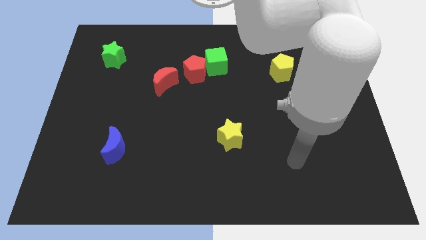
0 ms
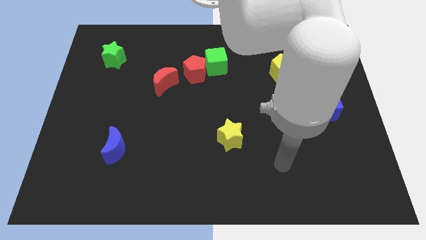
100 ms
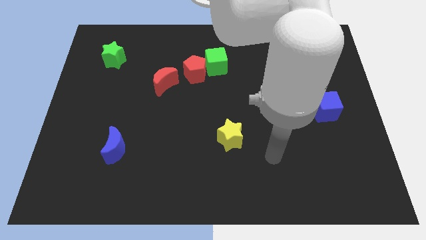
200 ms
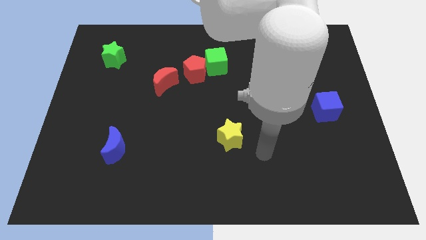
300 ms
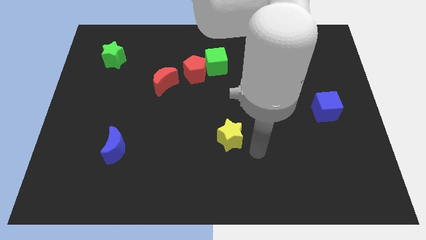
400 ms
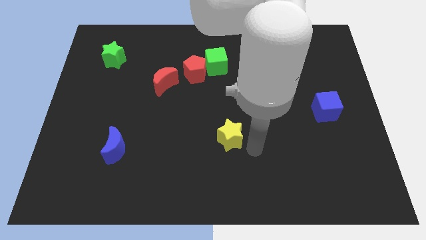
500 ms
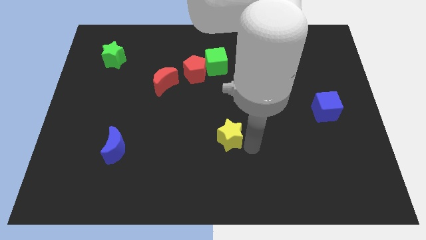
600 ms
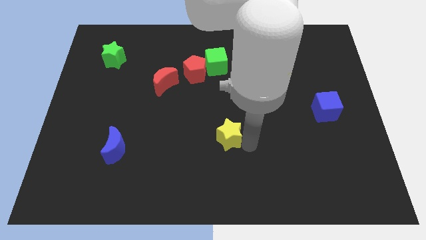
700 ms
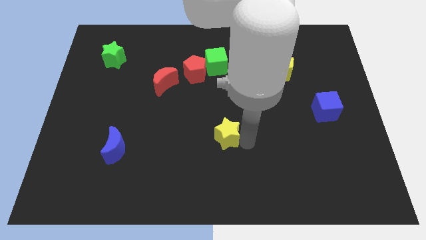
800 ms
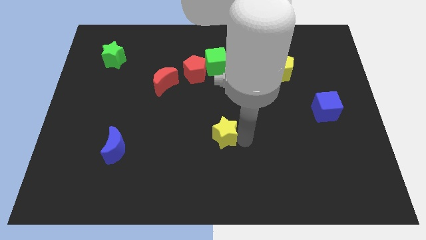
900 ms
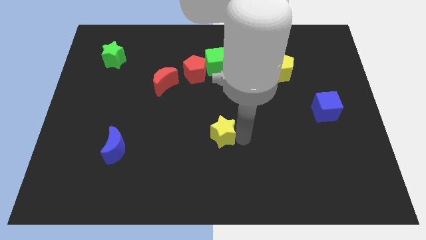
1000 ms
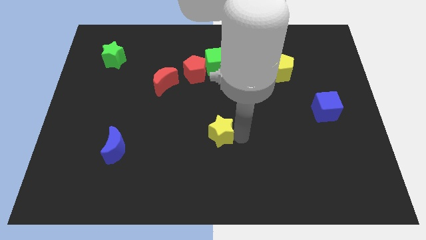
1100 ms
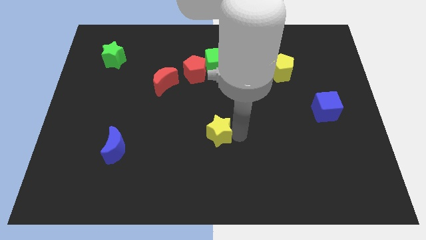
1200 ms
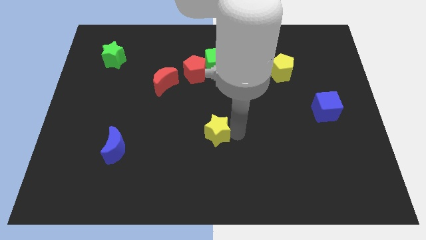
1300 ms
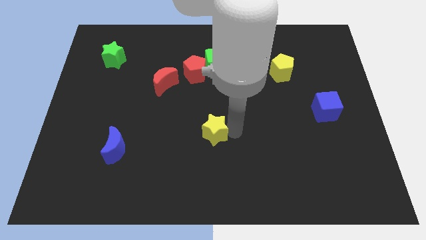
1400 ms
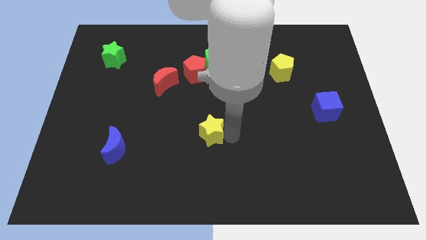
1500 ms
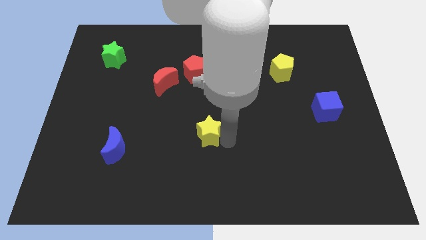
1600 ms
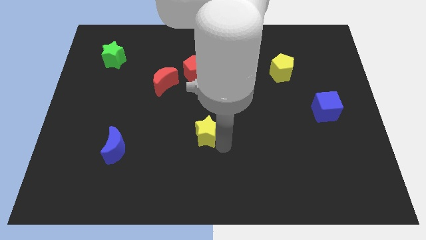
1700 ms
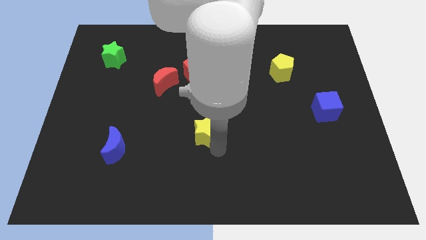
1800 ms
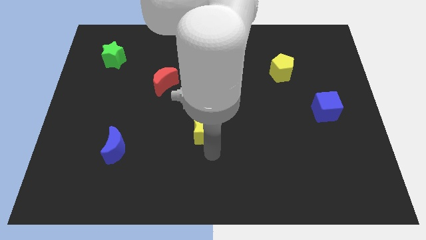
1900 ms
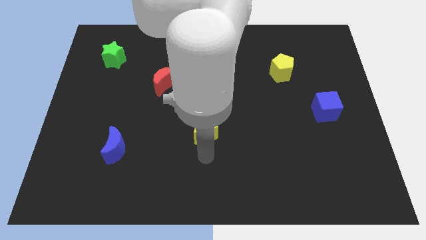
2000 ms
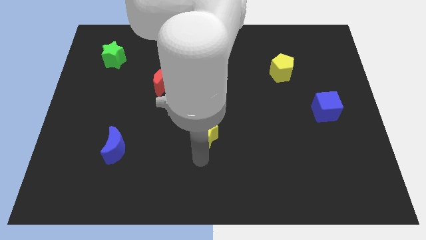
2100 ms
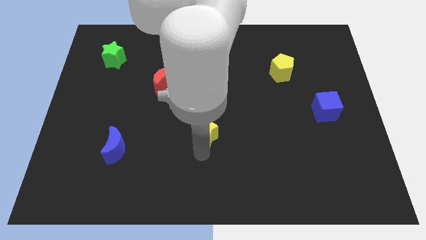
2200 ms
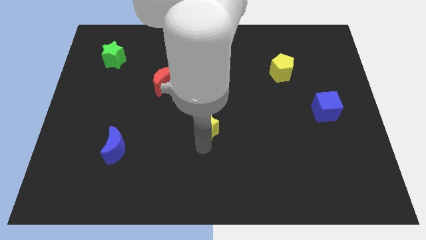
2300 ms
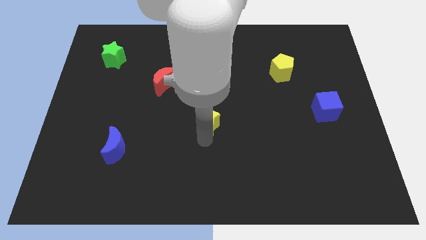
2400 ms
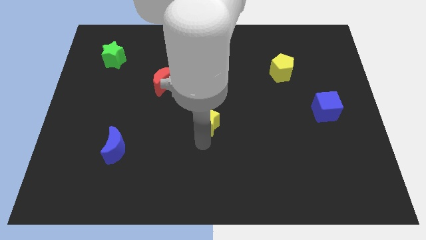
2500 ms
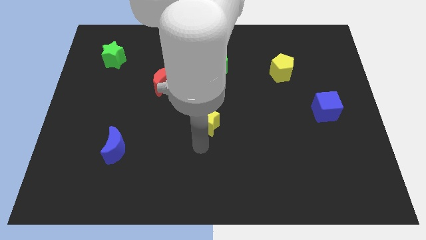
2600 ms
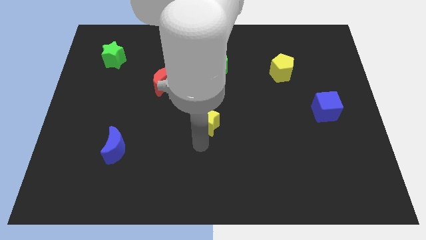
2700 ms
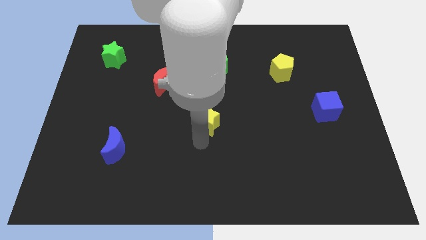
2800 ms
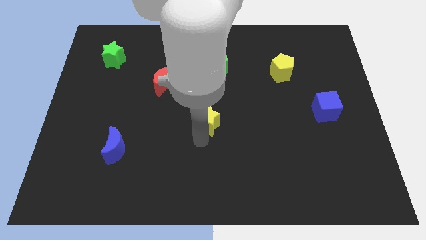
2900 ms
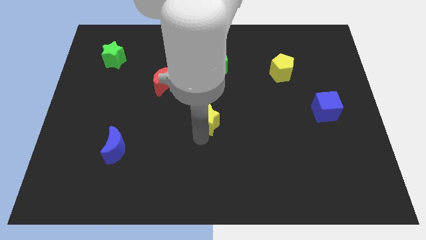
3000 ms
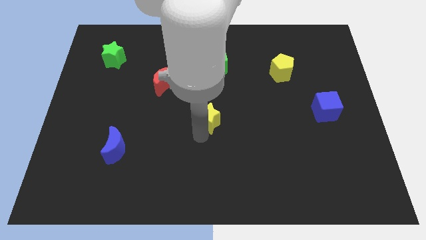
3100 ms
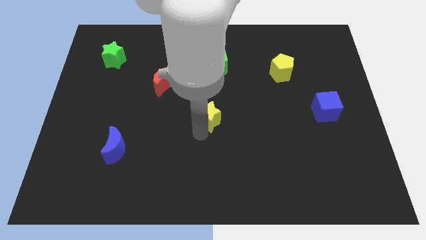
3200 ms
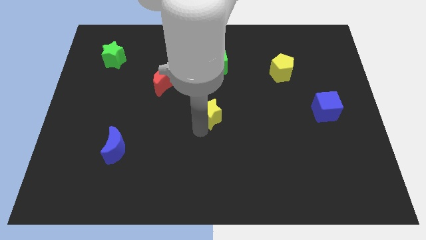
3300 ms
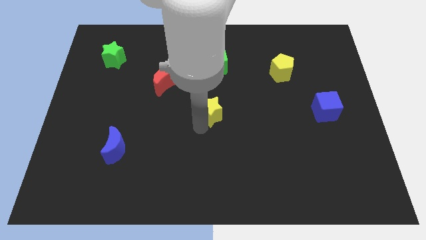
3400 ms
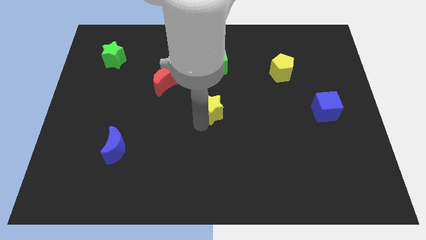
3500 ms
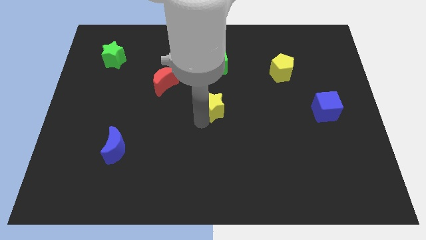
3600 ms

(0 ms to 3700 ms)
slightly move the yellow star upwards

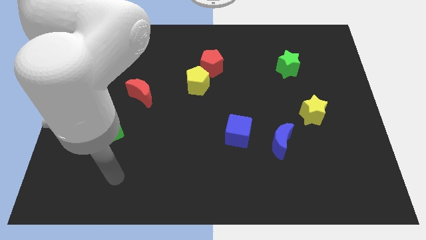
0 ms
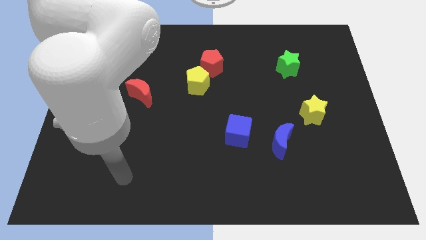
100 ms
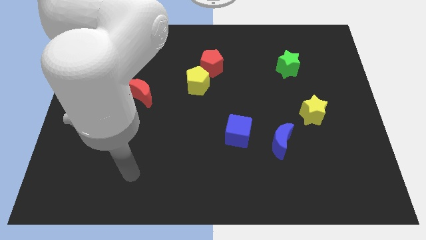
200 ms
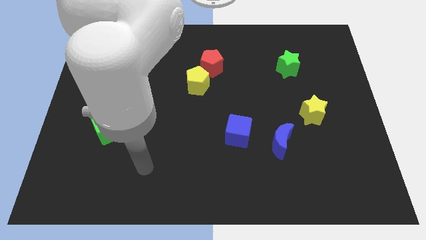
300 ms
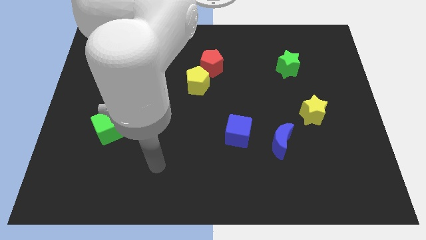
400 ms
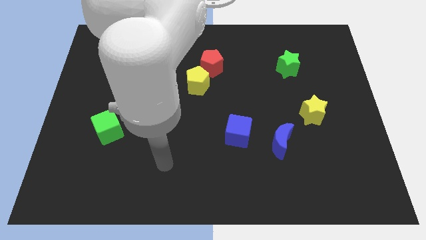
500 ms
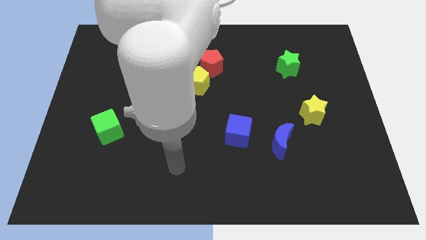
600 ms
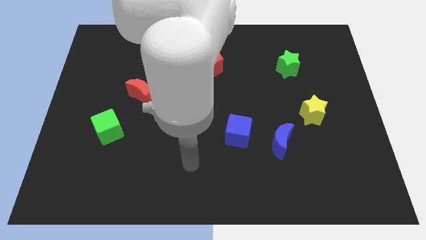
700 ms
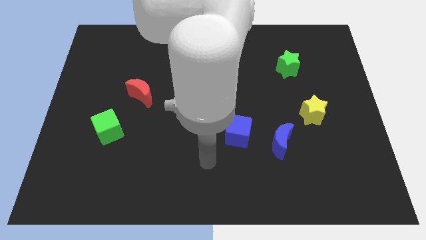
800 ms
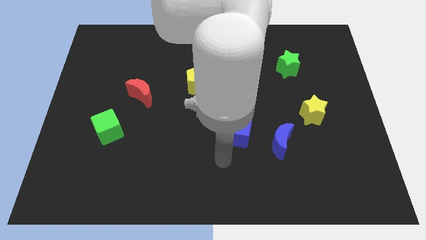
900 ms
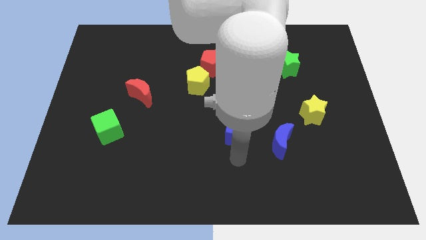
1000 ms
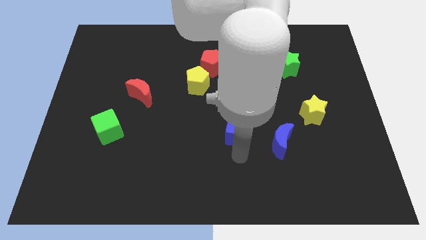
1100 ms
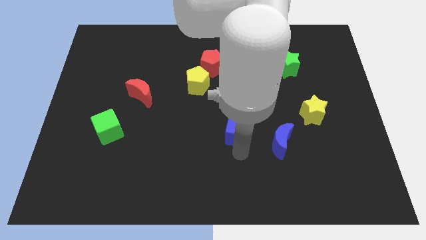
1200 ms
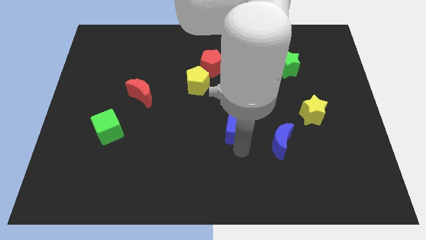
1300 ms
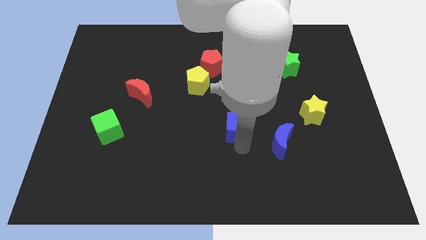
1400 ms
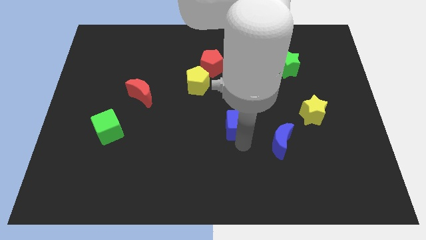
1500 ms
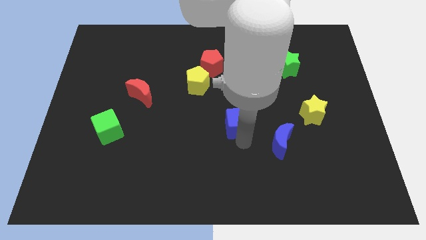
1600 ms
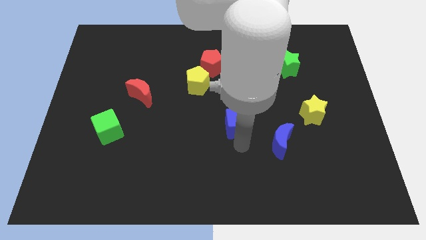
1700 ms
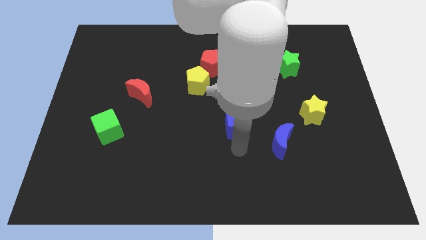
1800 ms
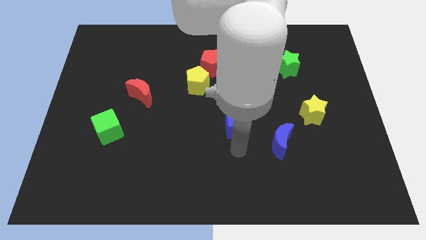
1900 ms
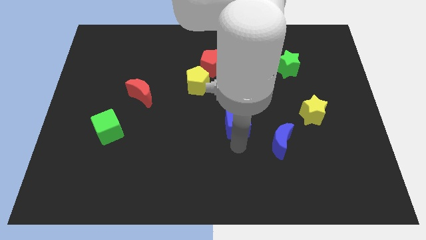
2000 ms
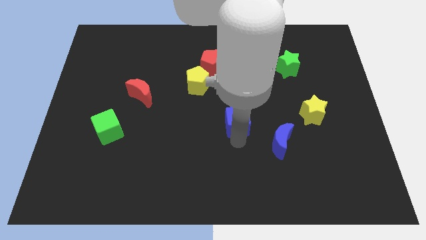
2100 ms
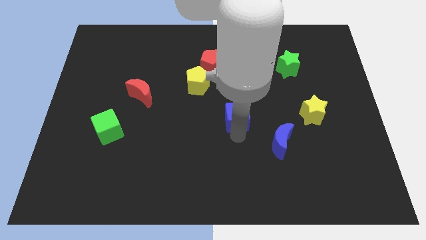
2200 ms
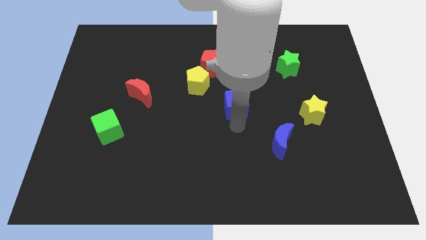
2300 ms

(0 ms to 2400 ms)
slide the blue cube a bit upwards

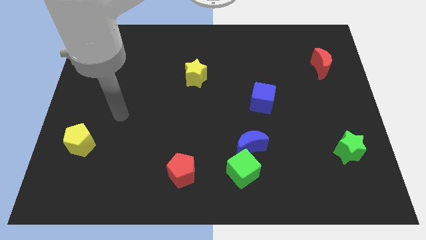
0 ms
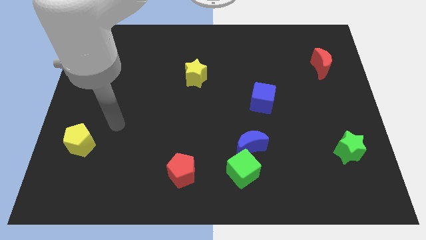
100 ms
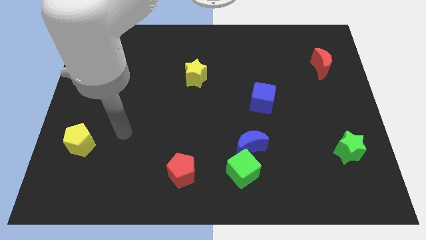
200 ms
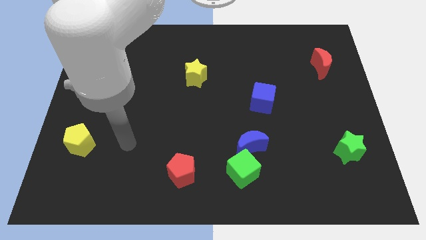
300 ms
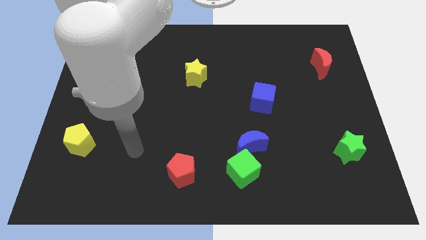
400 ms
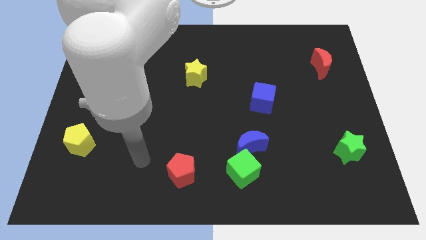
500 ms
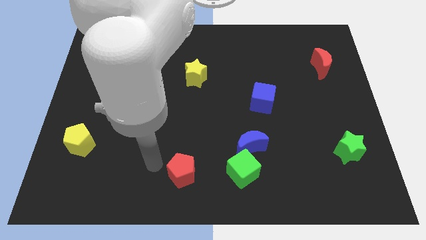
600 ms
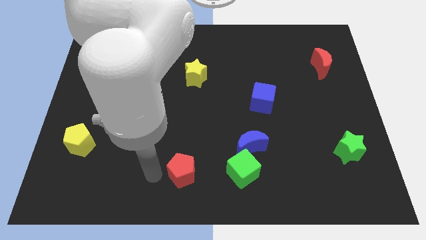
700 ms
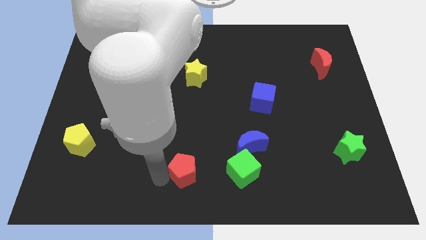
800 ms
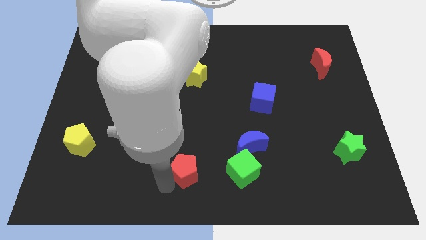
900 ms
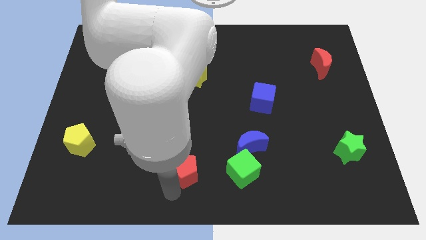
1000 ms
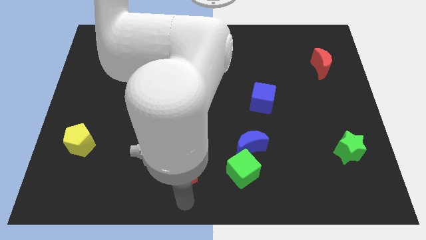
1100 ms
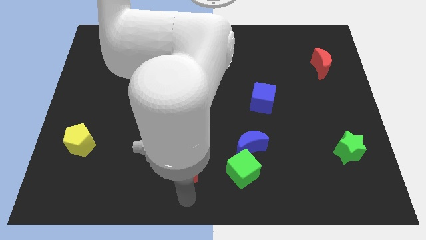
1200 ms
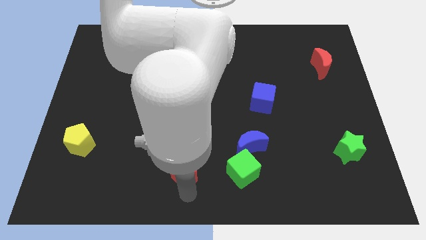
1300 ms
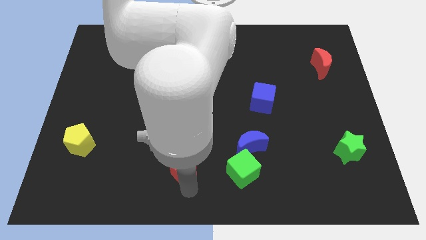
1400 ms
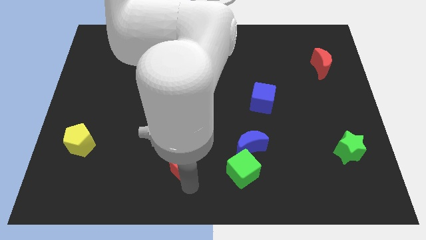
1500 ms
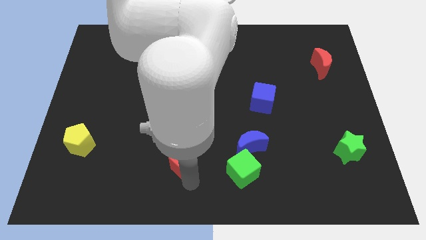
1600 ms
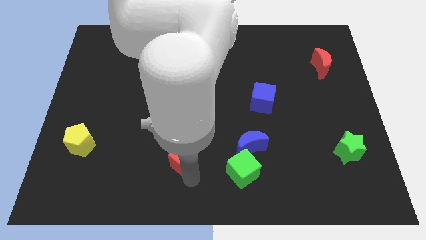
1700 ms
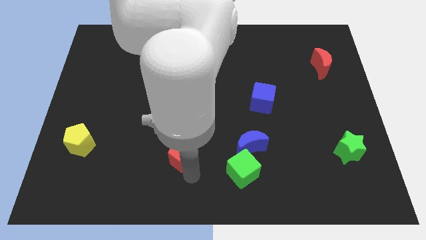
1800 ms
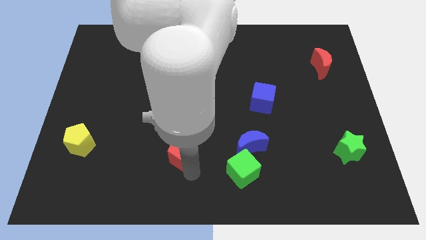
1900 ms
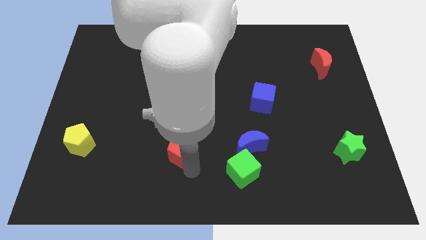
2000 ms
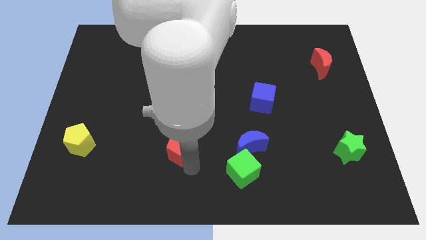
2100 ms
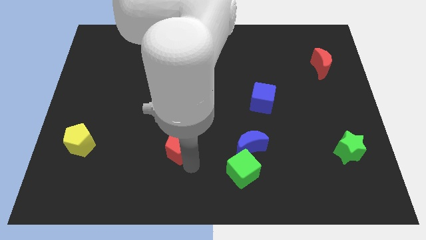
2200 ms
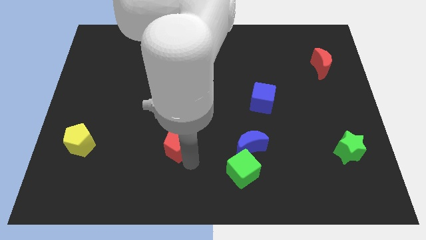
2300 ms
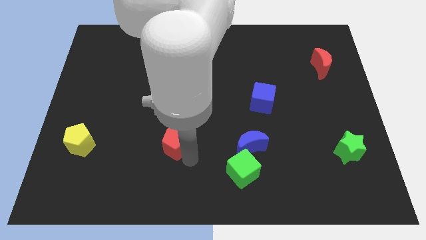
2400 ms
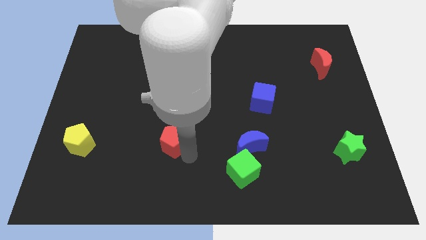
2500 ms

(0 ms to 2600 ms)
slide the red pentagon a bit up
